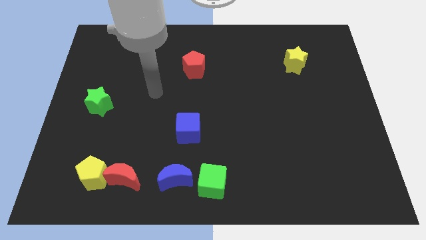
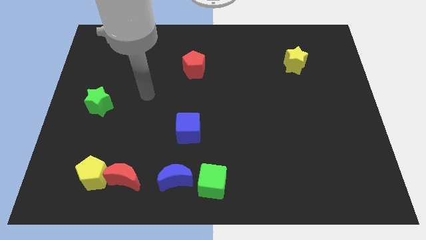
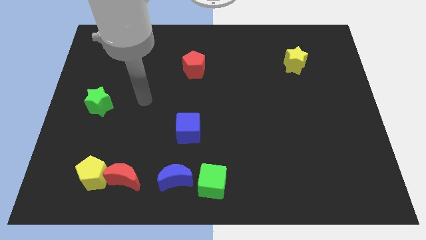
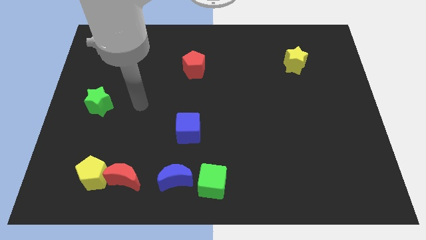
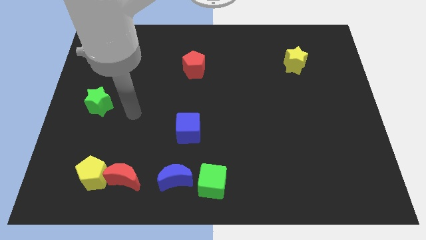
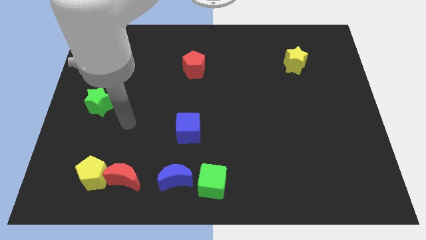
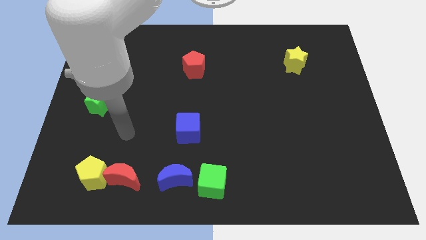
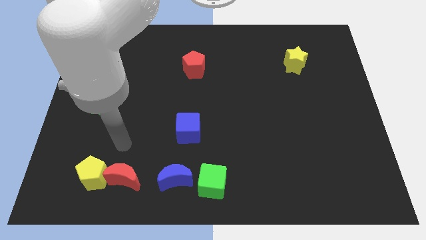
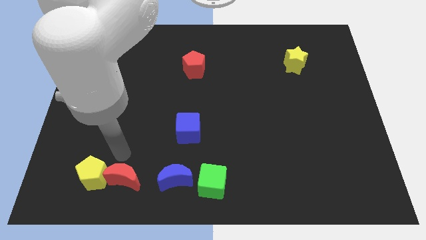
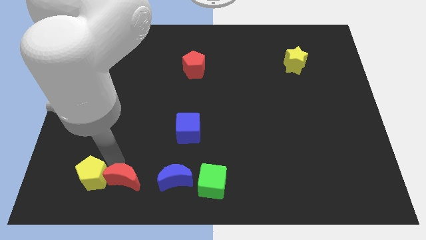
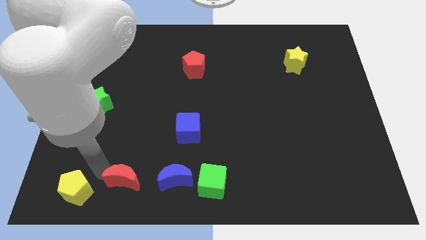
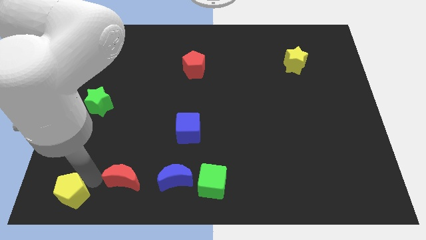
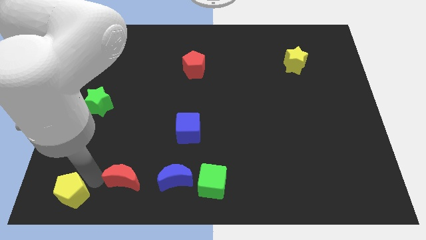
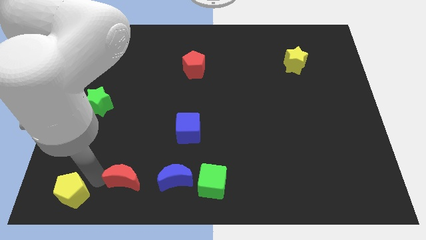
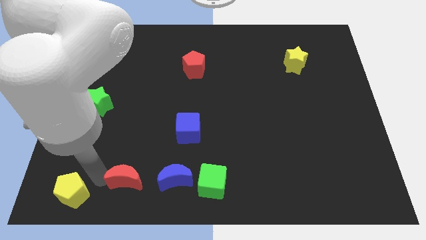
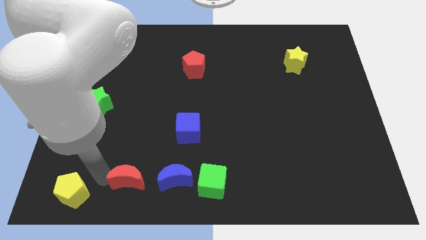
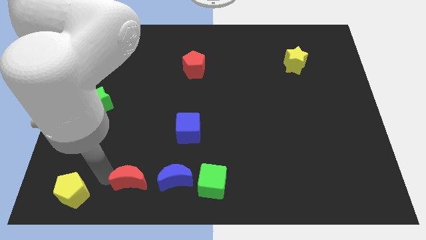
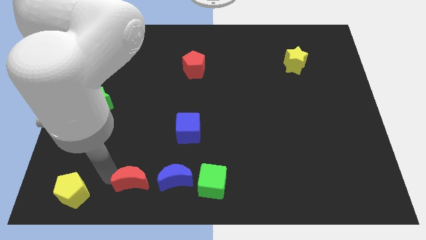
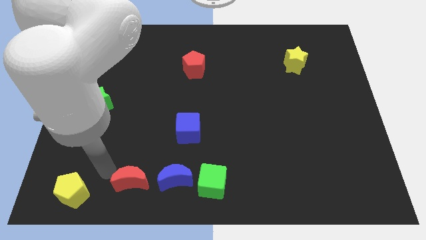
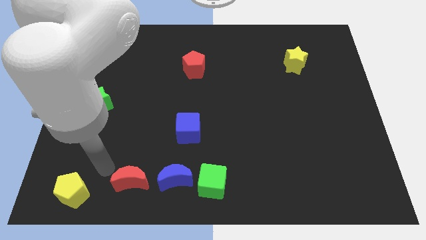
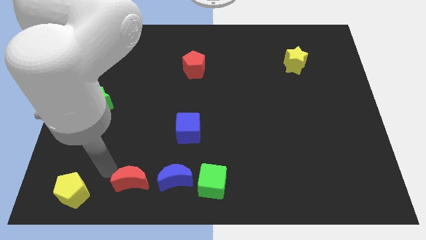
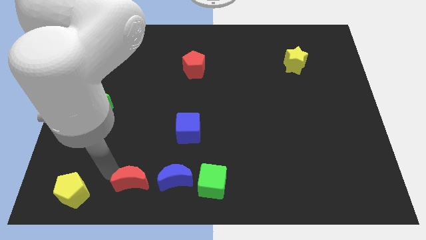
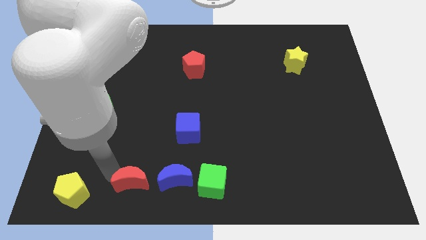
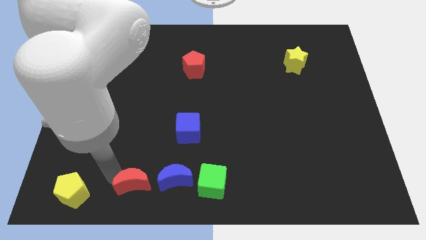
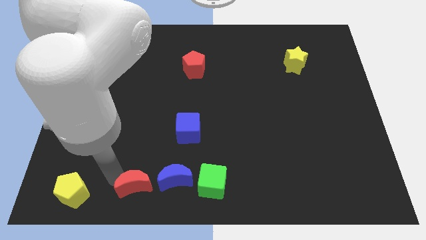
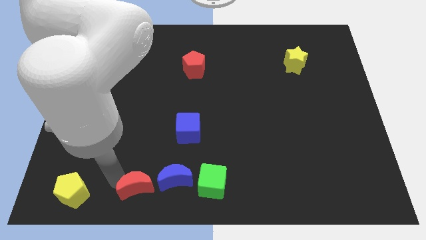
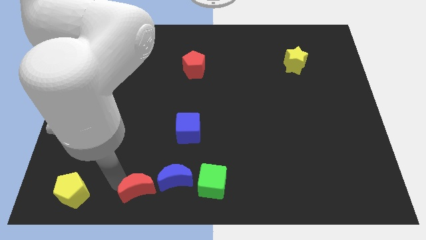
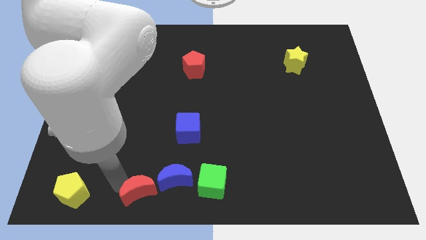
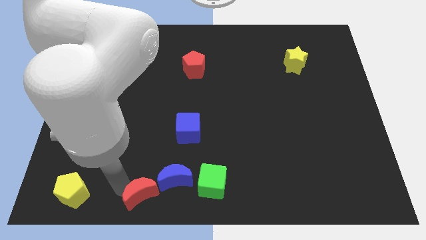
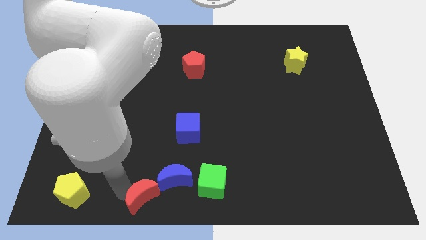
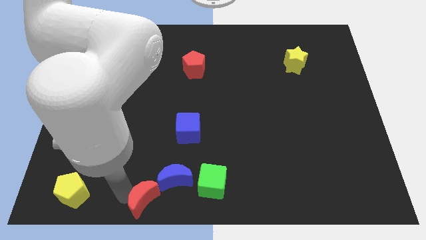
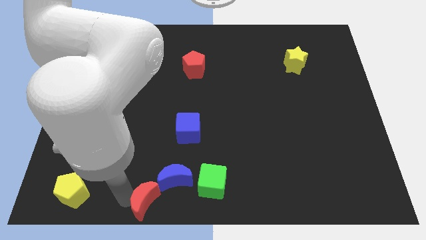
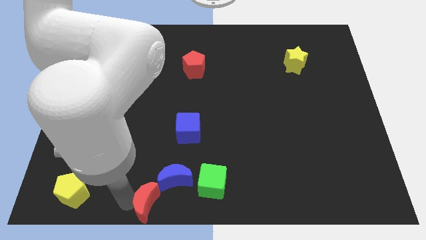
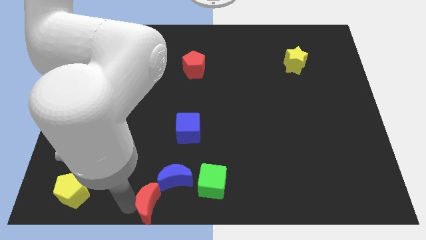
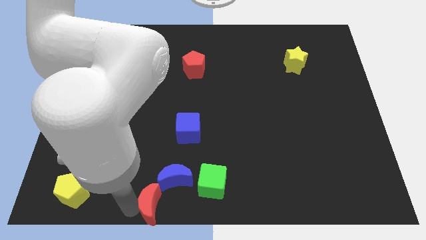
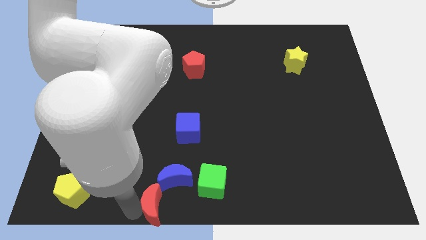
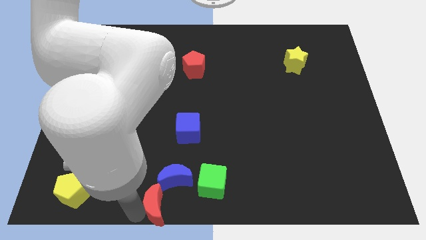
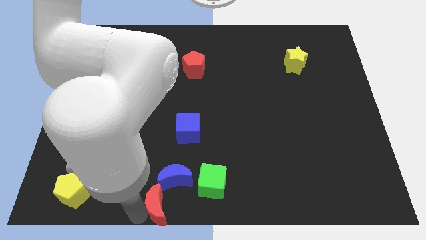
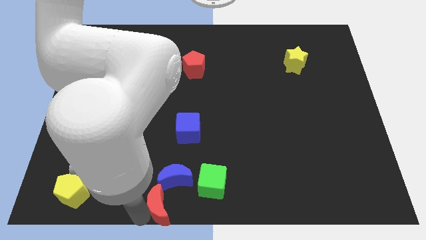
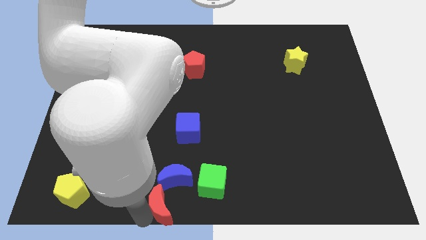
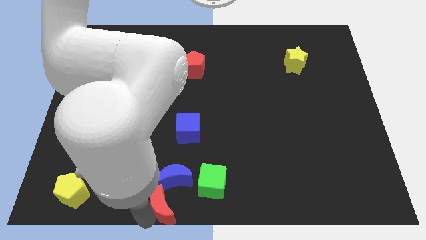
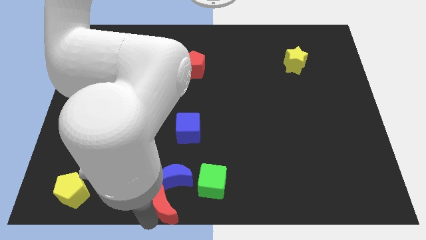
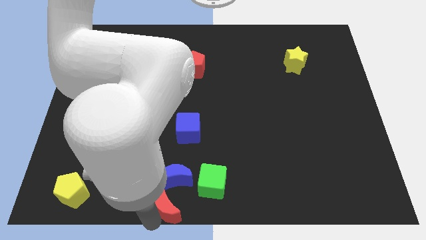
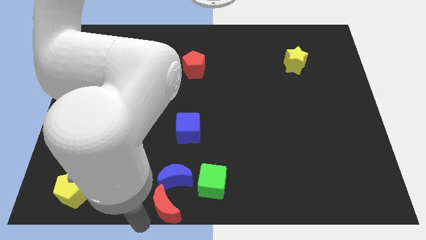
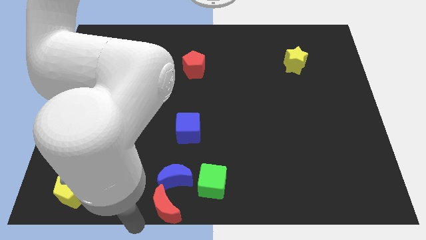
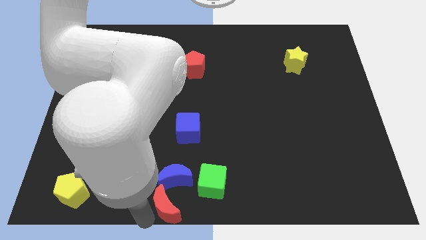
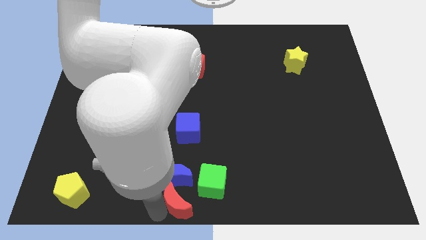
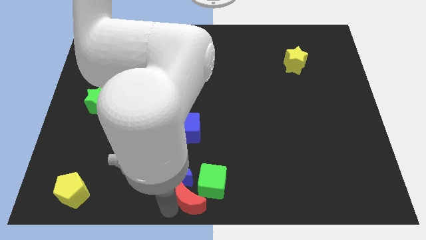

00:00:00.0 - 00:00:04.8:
push the red moon towards the green cube

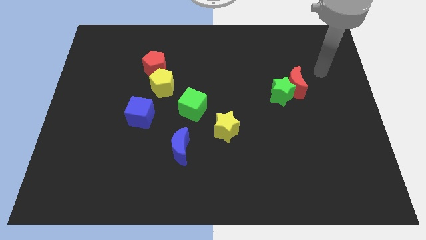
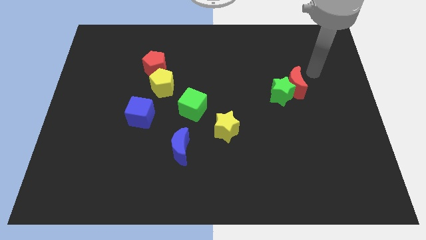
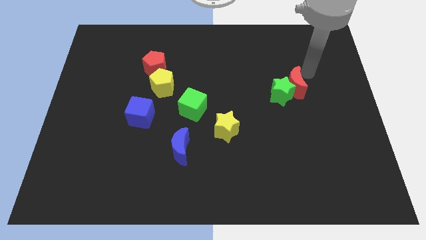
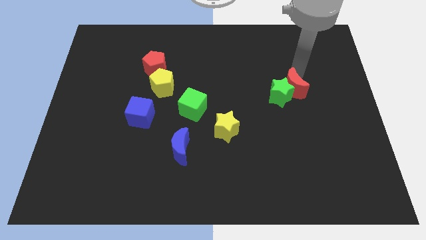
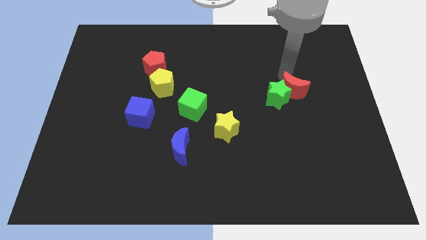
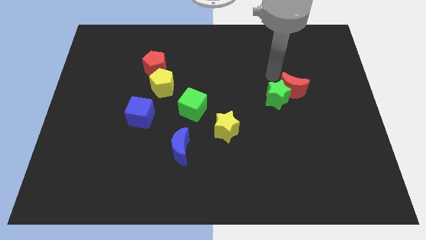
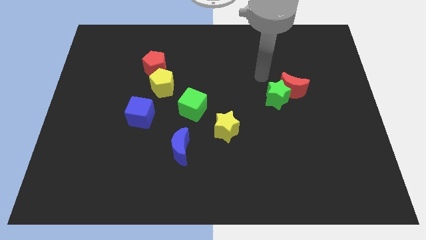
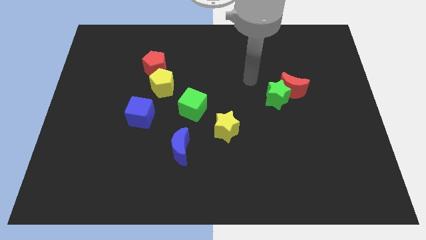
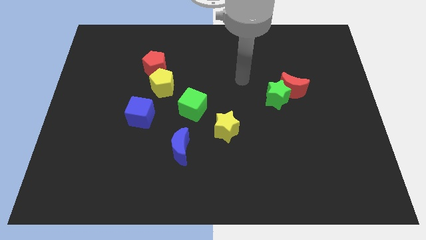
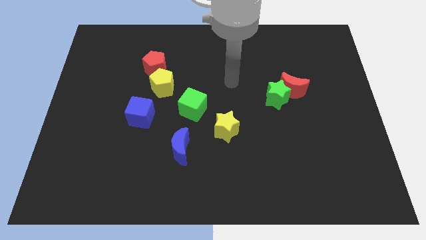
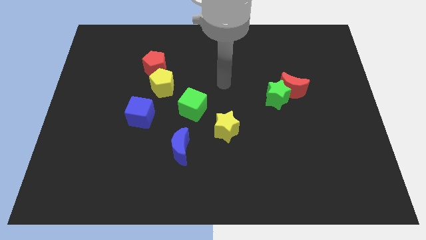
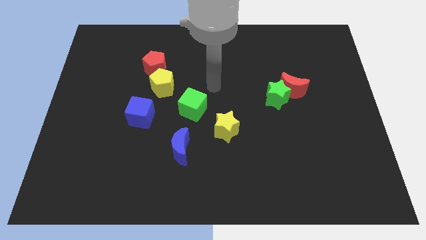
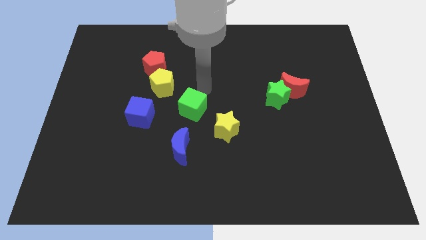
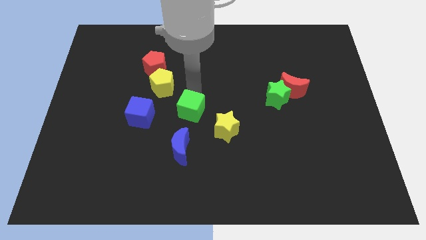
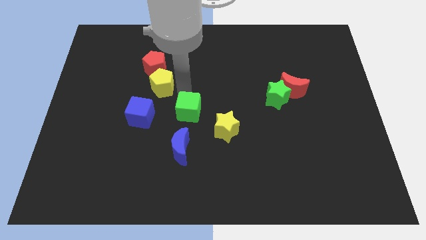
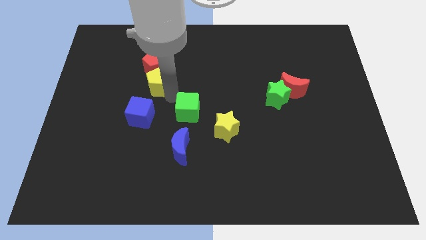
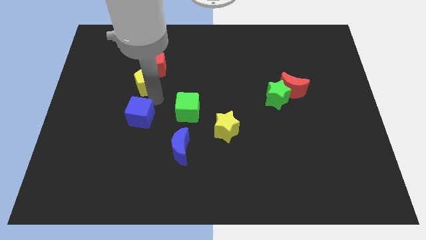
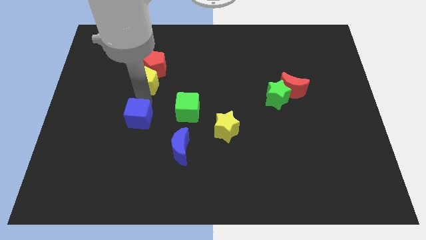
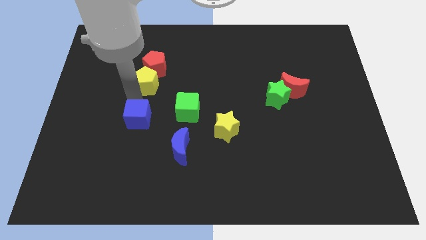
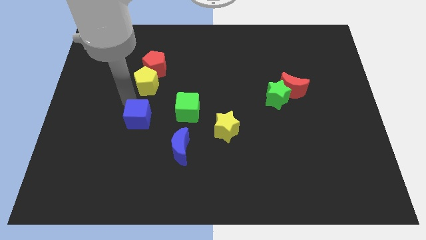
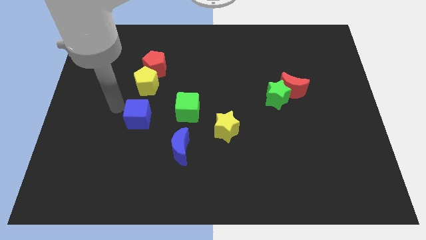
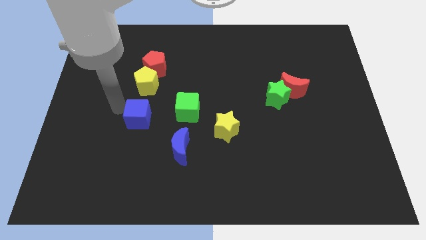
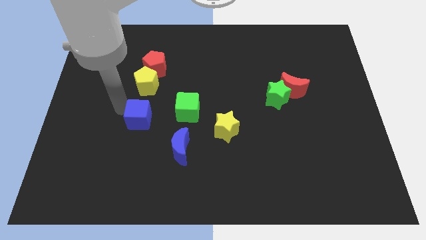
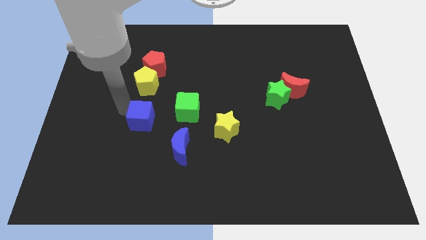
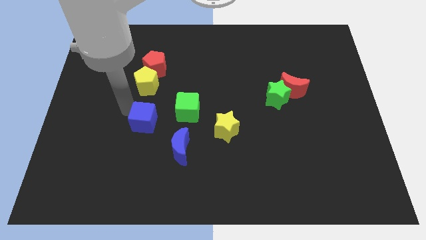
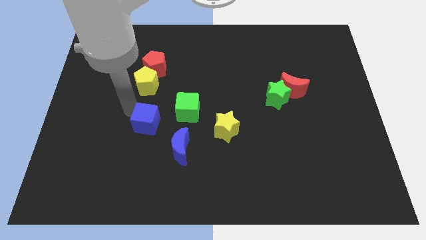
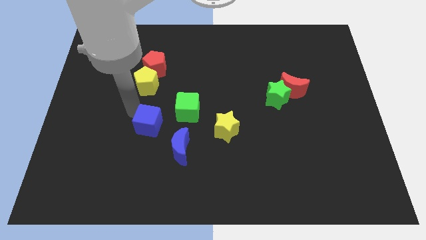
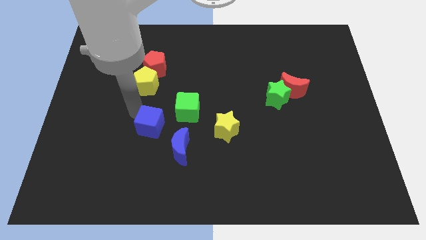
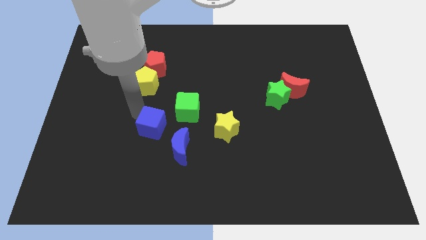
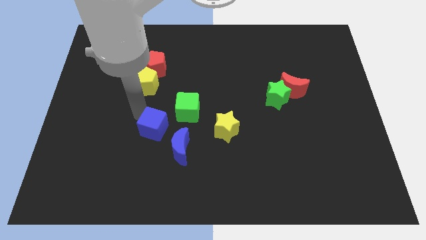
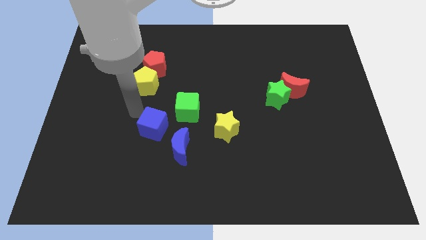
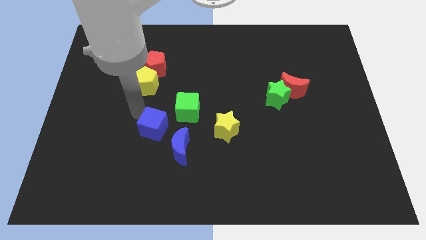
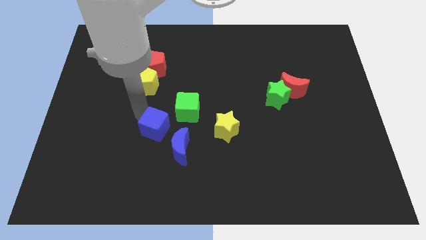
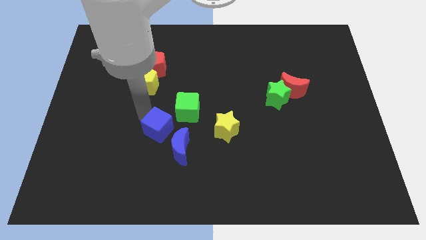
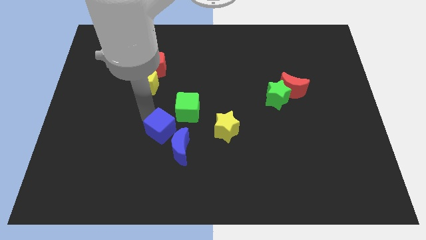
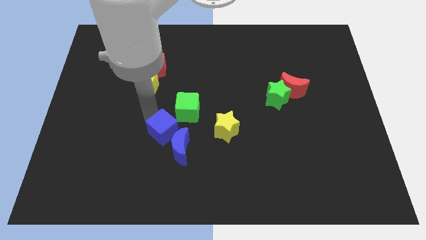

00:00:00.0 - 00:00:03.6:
slide the blue cube towards the blue moon
